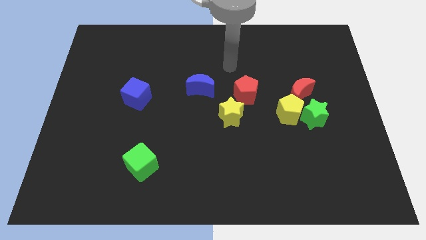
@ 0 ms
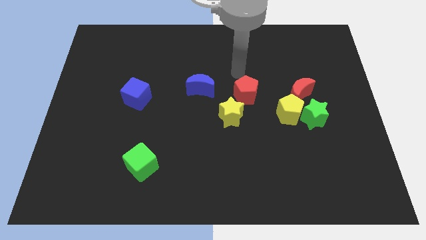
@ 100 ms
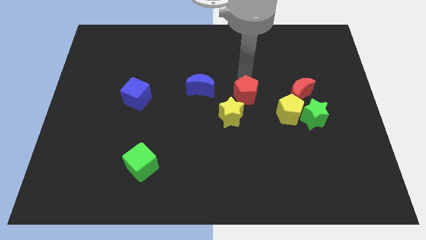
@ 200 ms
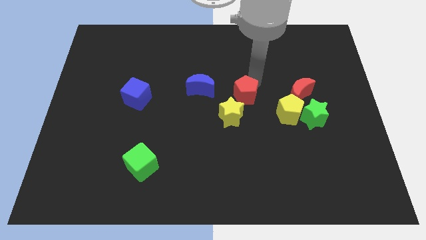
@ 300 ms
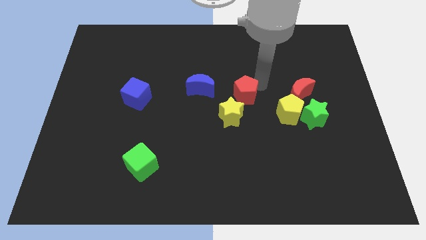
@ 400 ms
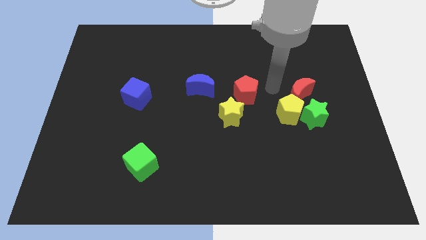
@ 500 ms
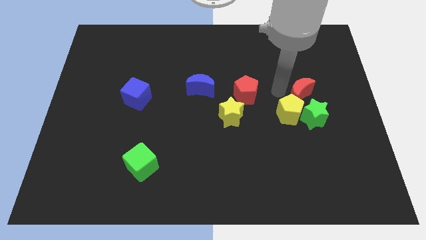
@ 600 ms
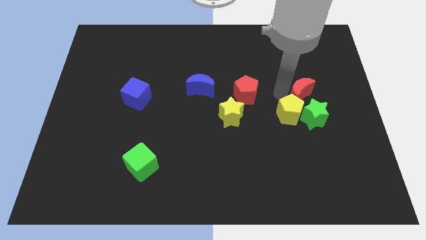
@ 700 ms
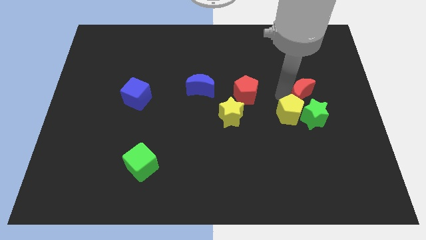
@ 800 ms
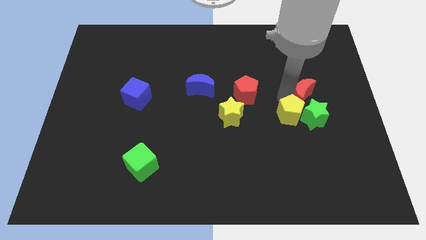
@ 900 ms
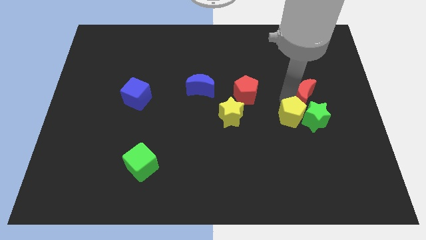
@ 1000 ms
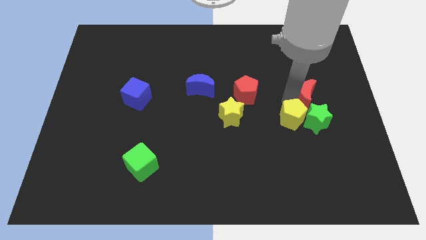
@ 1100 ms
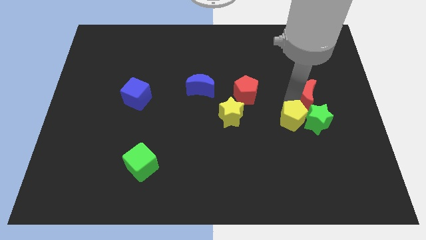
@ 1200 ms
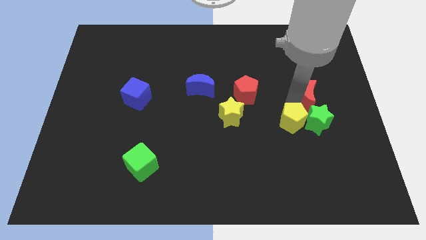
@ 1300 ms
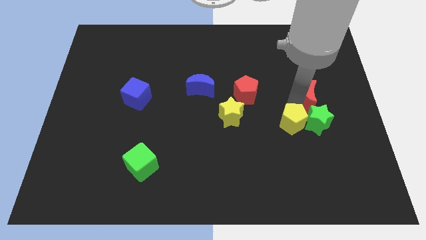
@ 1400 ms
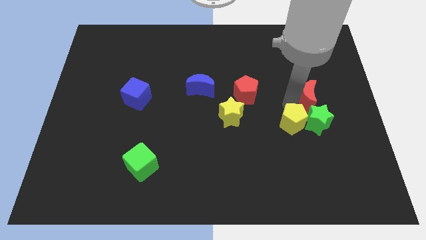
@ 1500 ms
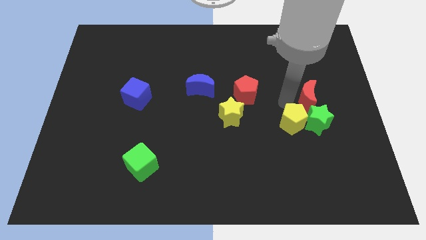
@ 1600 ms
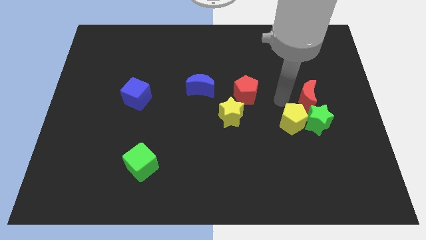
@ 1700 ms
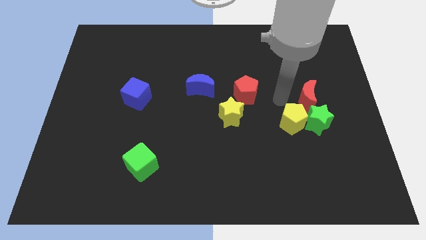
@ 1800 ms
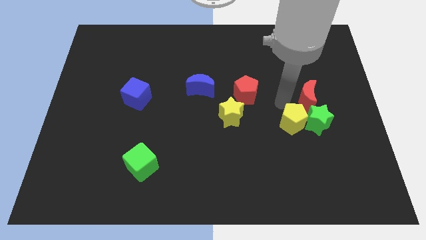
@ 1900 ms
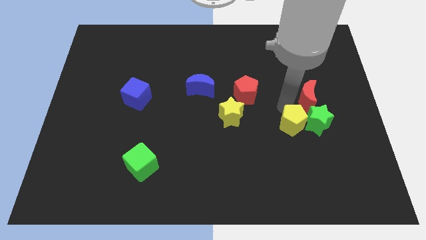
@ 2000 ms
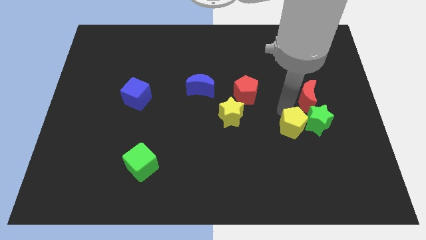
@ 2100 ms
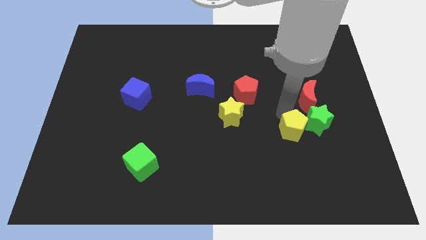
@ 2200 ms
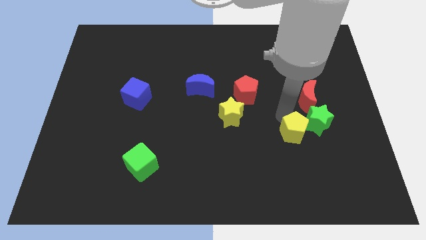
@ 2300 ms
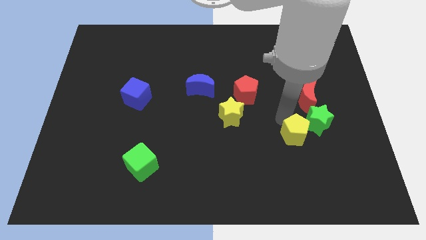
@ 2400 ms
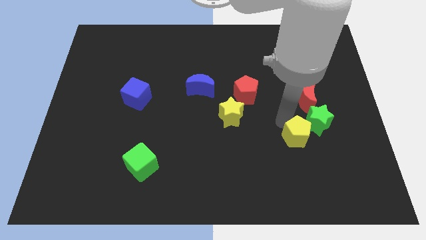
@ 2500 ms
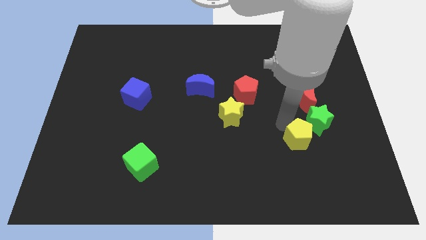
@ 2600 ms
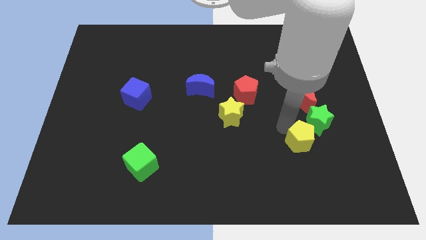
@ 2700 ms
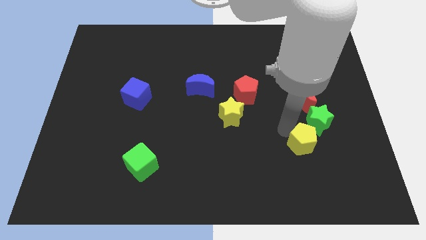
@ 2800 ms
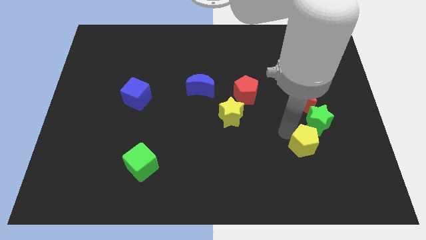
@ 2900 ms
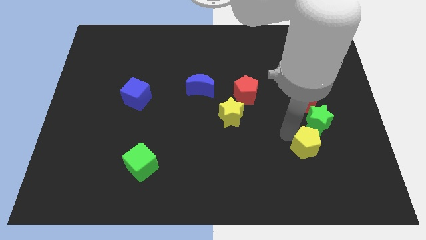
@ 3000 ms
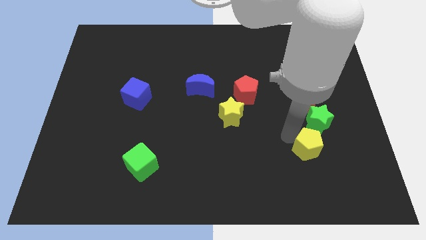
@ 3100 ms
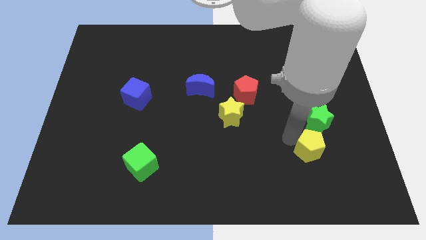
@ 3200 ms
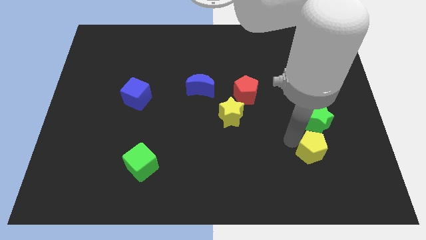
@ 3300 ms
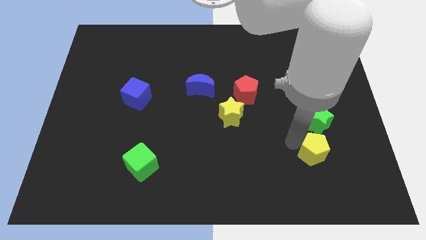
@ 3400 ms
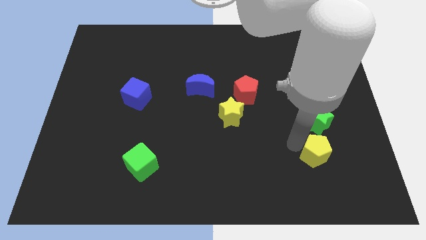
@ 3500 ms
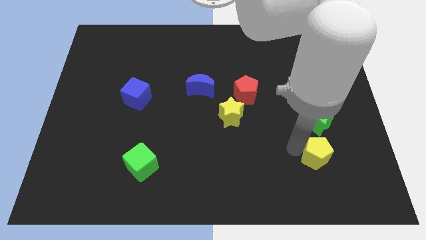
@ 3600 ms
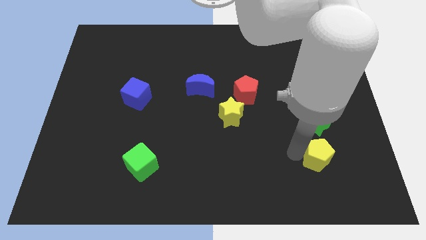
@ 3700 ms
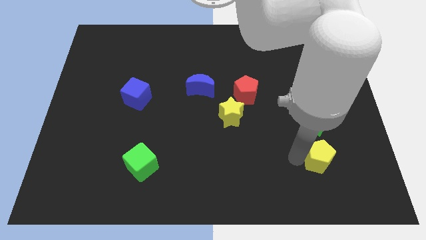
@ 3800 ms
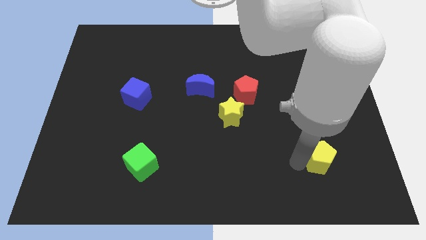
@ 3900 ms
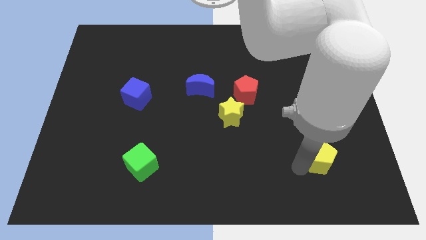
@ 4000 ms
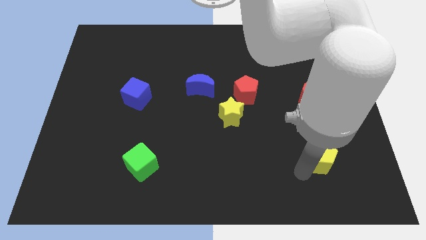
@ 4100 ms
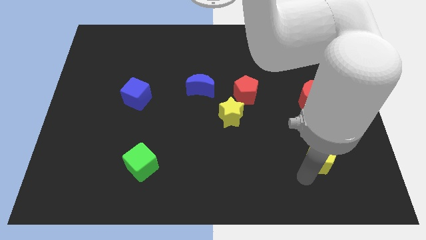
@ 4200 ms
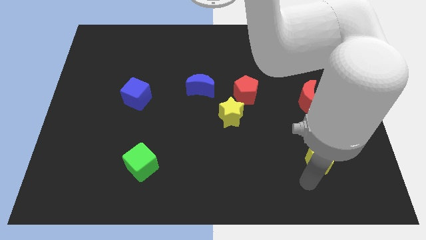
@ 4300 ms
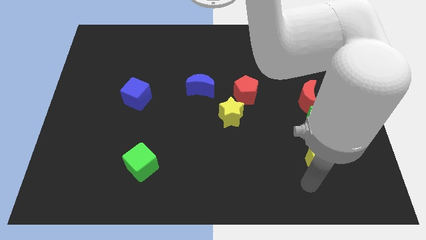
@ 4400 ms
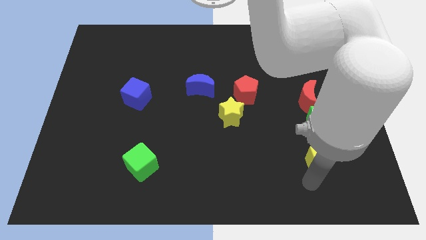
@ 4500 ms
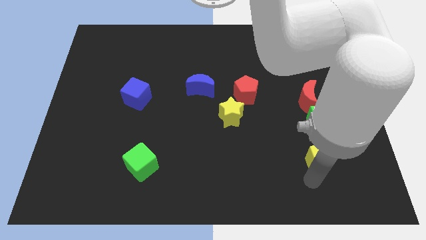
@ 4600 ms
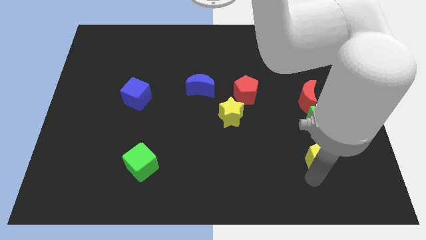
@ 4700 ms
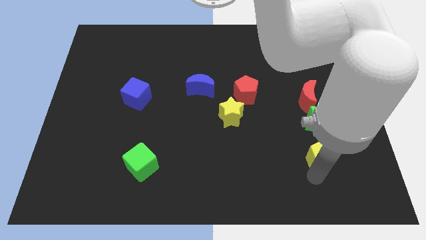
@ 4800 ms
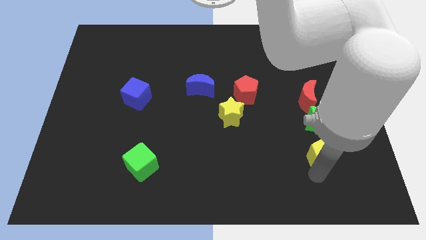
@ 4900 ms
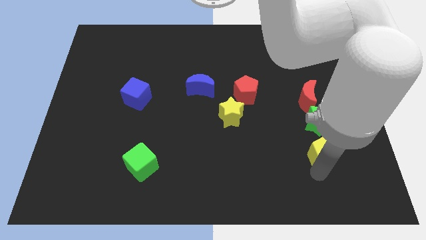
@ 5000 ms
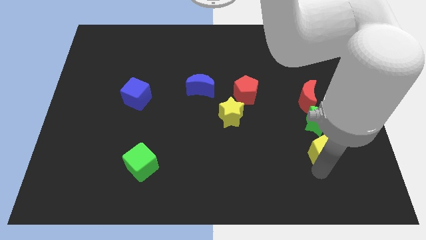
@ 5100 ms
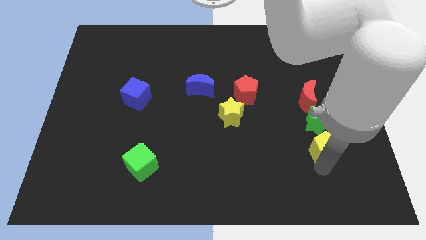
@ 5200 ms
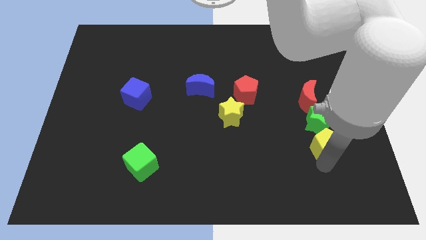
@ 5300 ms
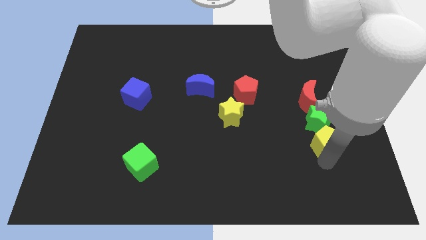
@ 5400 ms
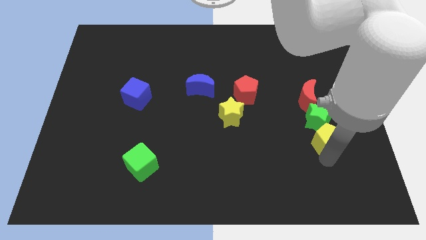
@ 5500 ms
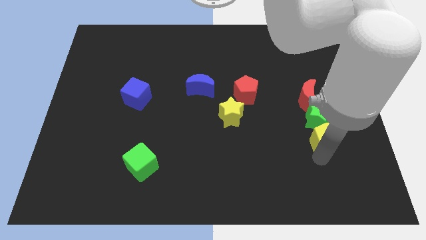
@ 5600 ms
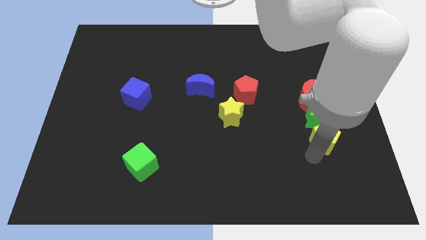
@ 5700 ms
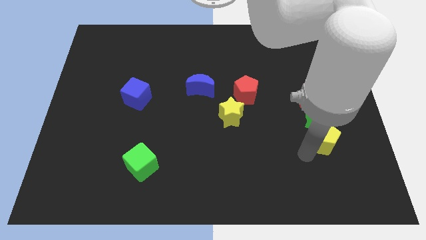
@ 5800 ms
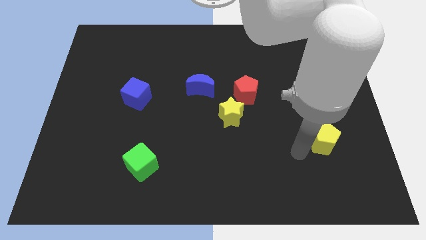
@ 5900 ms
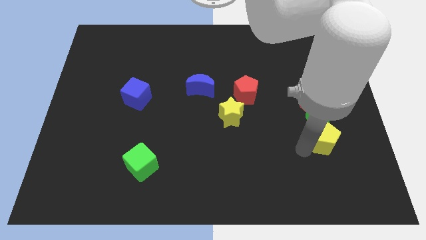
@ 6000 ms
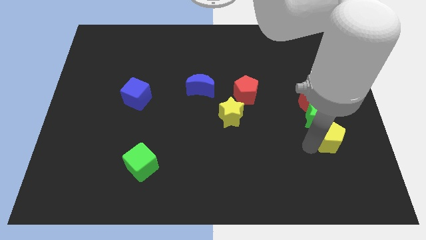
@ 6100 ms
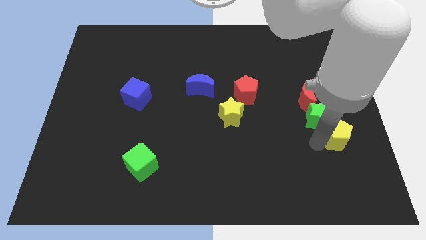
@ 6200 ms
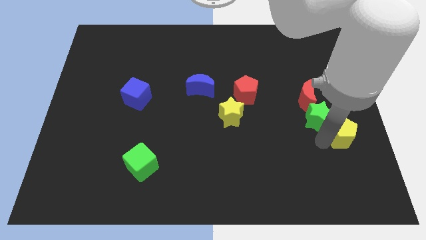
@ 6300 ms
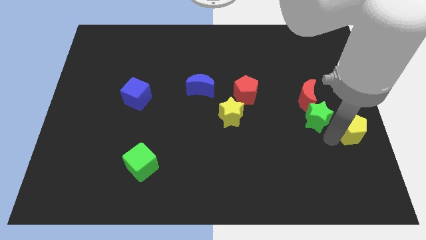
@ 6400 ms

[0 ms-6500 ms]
push the yellow pentagon to the right side of the board
